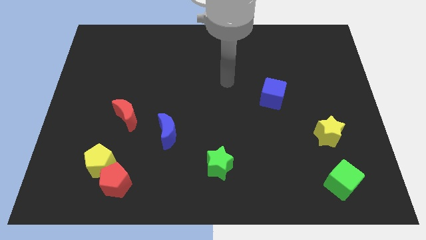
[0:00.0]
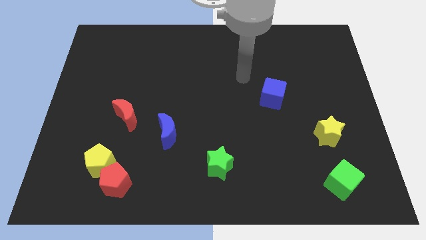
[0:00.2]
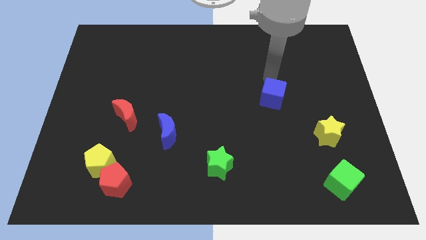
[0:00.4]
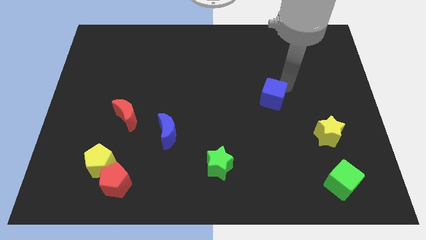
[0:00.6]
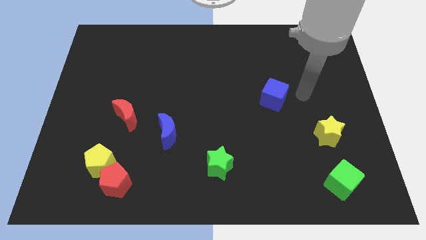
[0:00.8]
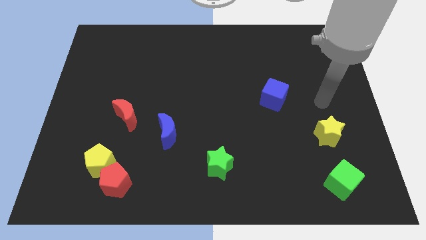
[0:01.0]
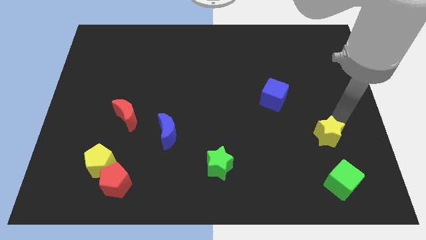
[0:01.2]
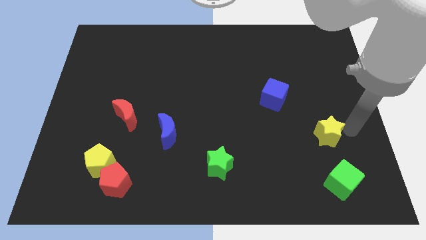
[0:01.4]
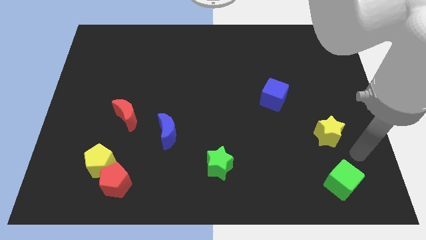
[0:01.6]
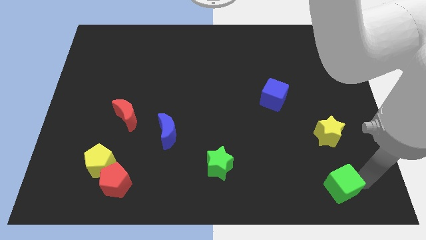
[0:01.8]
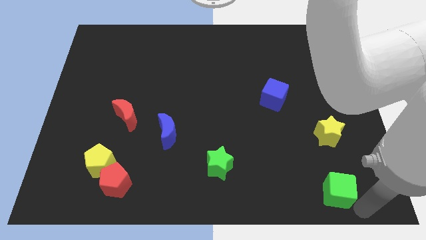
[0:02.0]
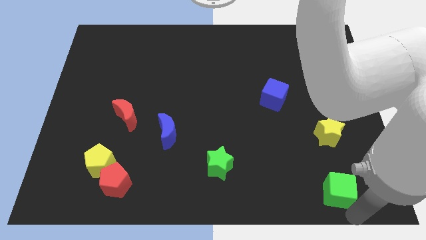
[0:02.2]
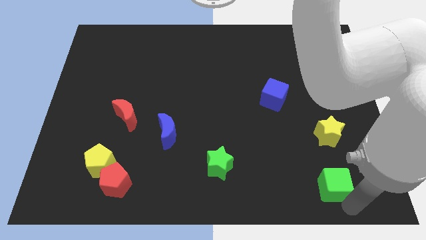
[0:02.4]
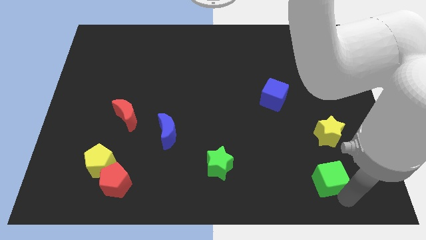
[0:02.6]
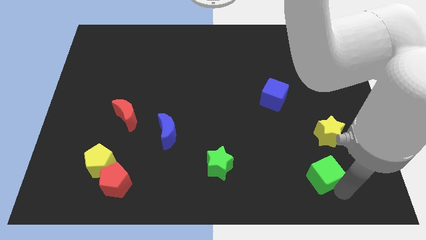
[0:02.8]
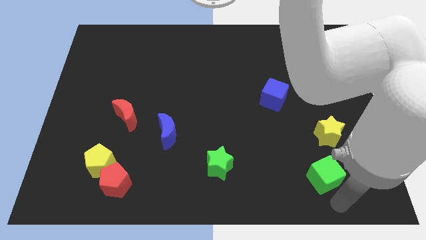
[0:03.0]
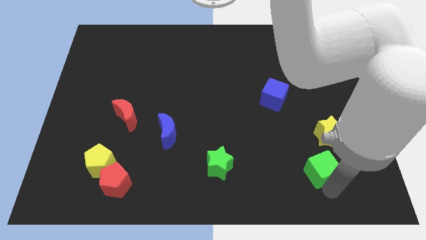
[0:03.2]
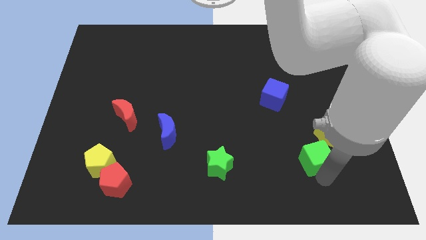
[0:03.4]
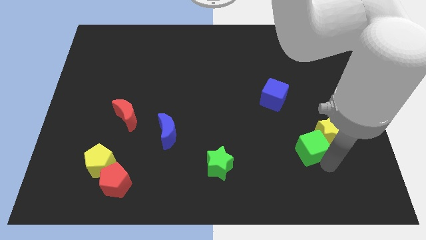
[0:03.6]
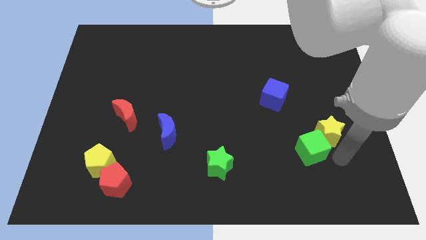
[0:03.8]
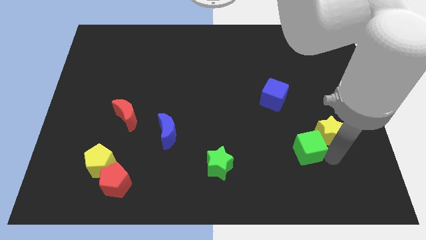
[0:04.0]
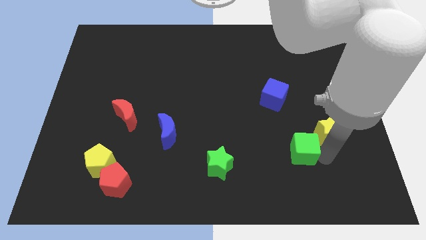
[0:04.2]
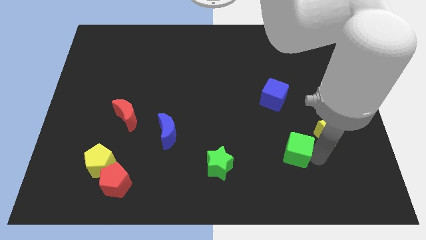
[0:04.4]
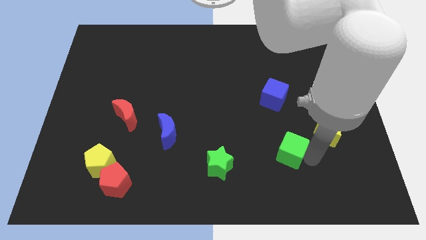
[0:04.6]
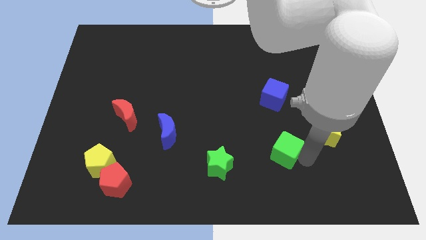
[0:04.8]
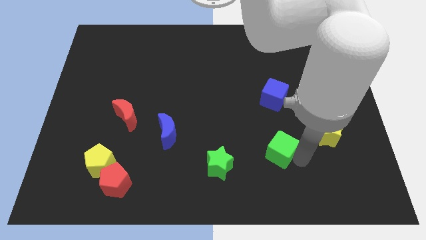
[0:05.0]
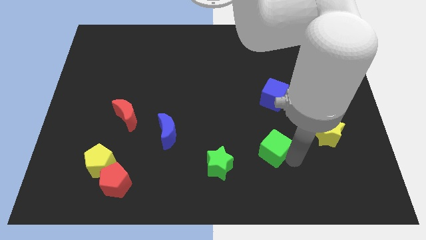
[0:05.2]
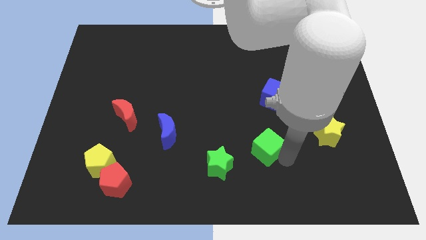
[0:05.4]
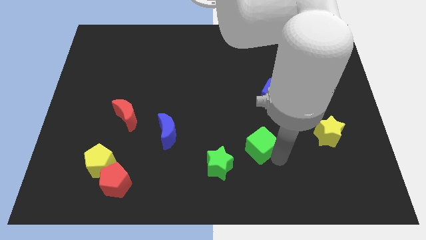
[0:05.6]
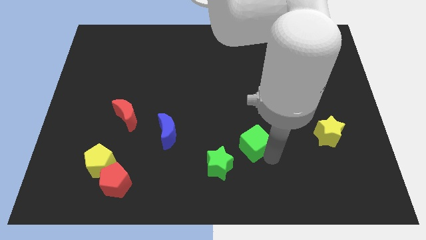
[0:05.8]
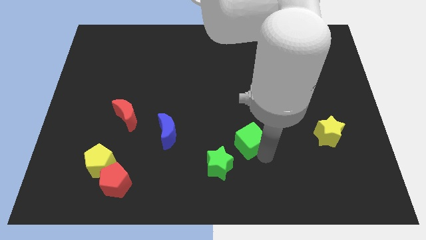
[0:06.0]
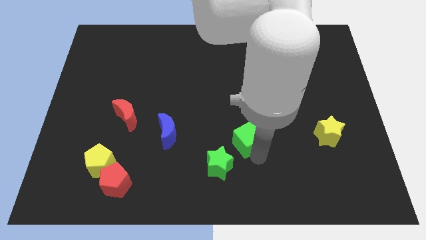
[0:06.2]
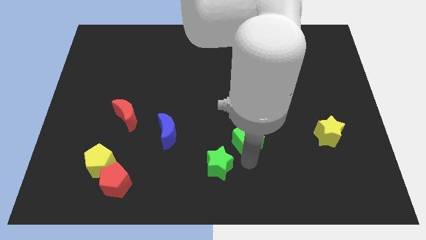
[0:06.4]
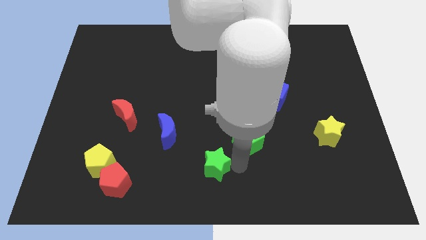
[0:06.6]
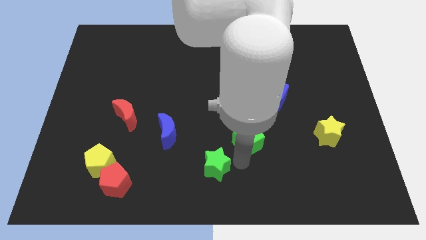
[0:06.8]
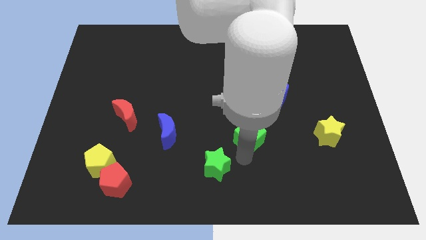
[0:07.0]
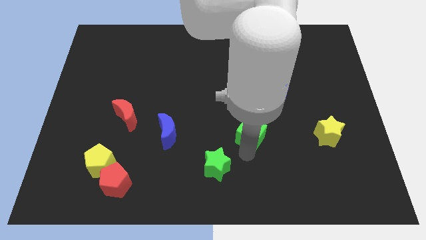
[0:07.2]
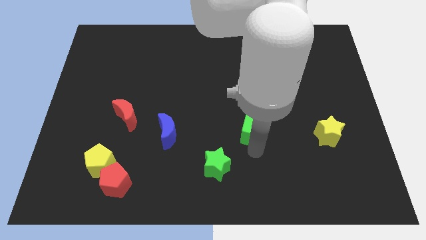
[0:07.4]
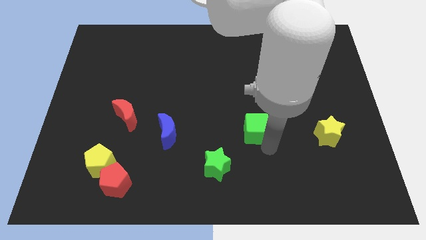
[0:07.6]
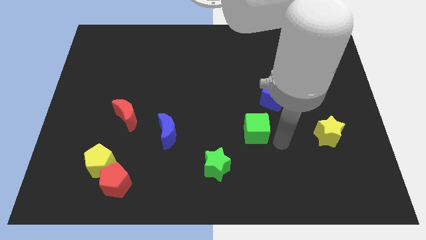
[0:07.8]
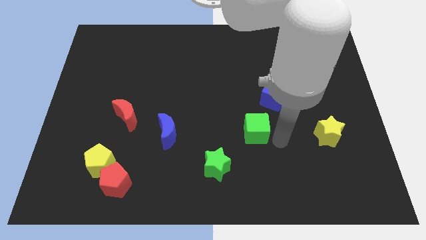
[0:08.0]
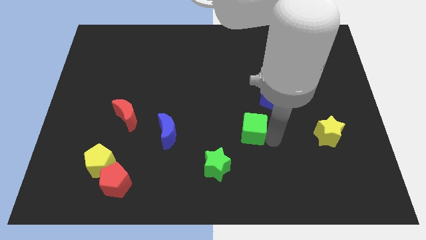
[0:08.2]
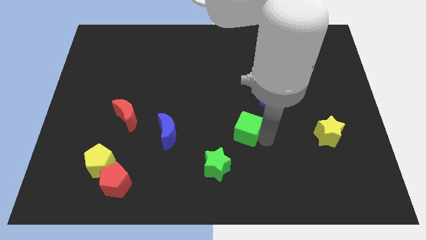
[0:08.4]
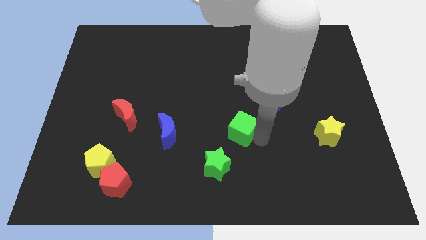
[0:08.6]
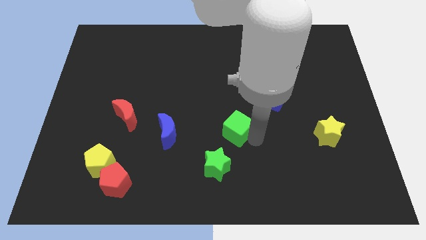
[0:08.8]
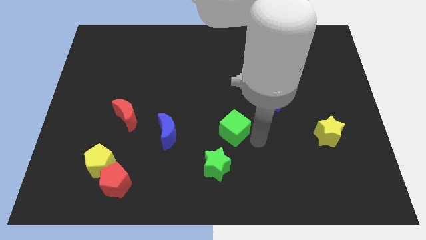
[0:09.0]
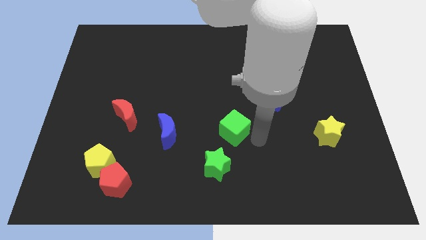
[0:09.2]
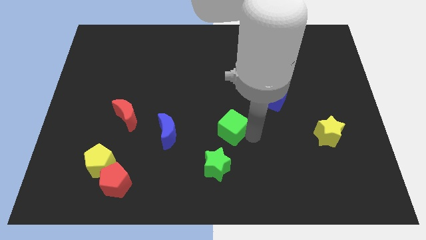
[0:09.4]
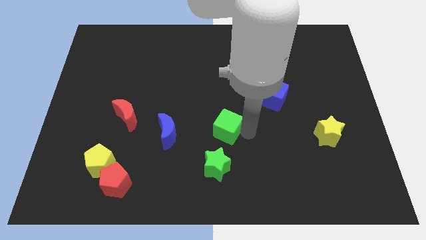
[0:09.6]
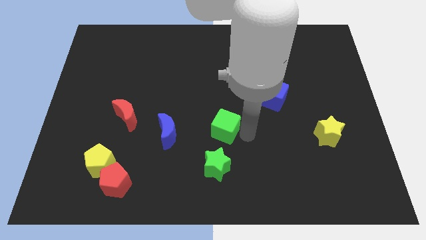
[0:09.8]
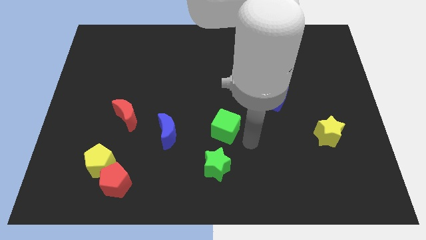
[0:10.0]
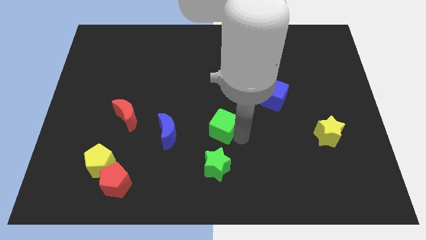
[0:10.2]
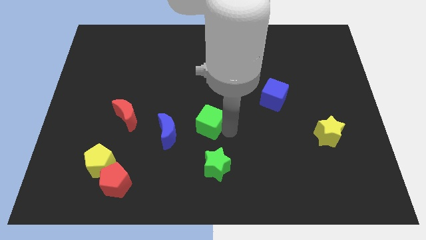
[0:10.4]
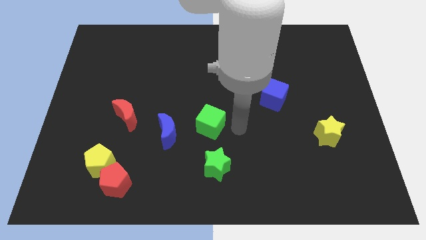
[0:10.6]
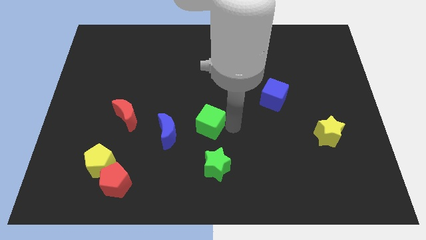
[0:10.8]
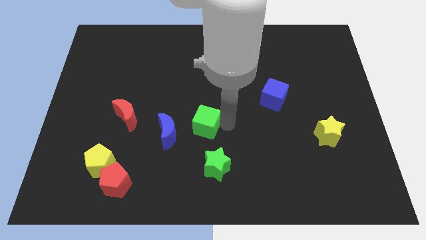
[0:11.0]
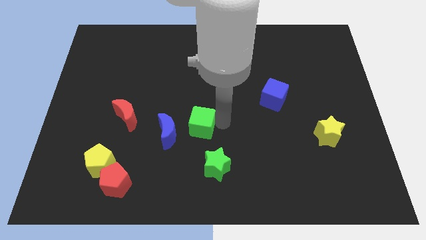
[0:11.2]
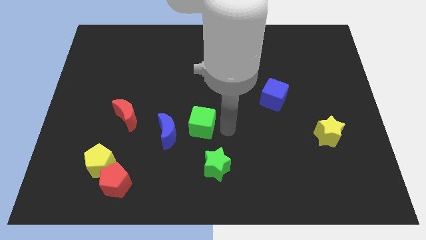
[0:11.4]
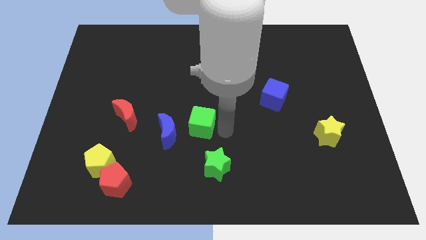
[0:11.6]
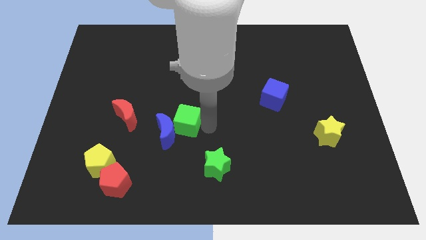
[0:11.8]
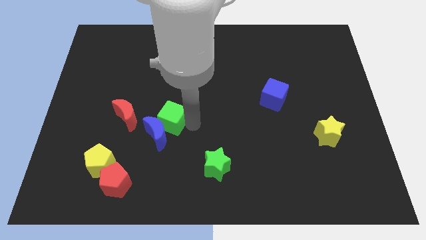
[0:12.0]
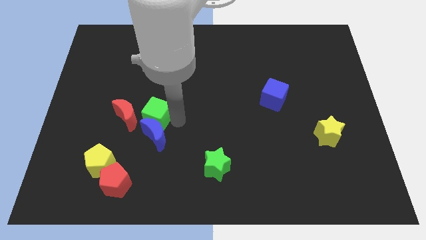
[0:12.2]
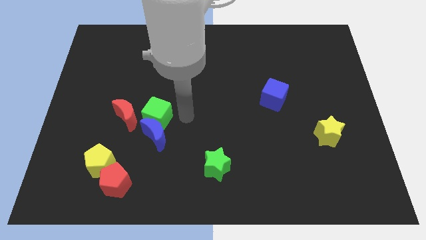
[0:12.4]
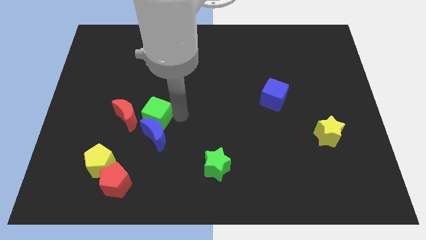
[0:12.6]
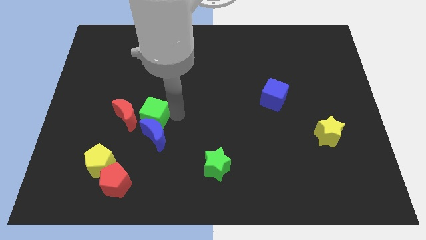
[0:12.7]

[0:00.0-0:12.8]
push the green cube towards the red moon

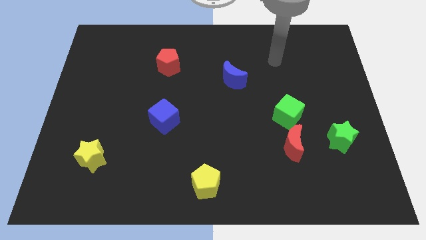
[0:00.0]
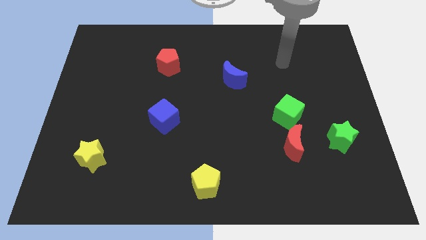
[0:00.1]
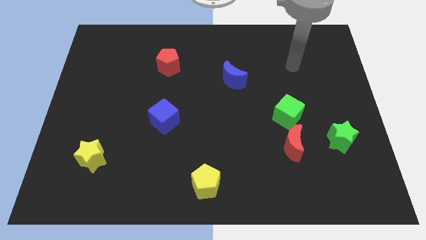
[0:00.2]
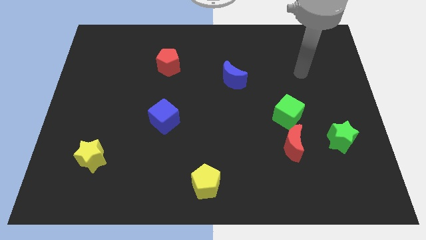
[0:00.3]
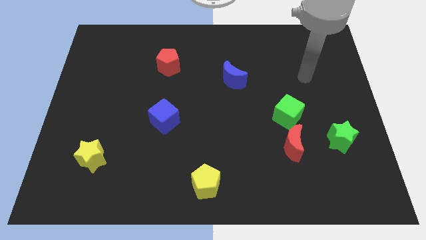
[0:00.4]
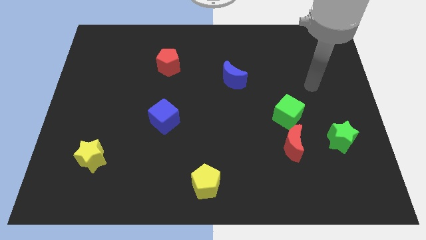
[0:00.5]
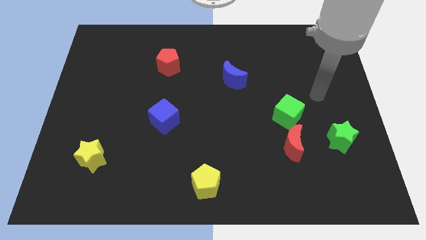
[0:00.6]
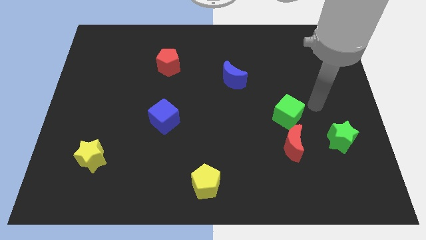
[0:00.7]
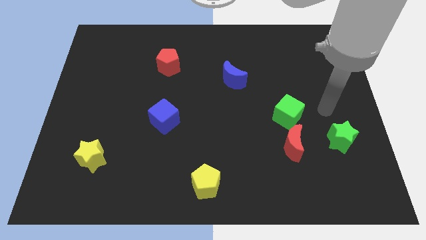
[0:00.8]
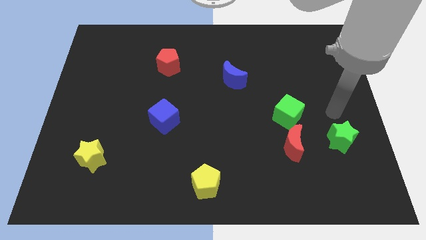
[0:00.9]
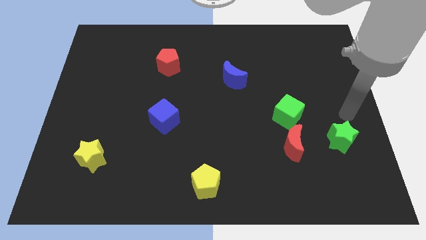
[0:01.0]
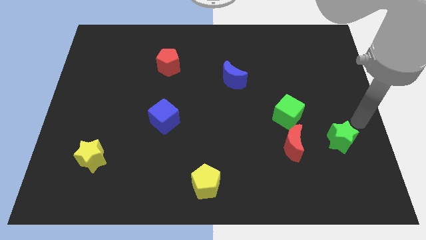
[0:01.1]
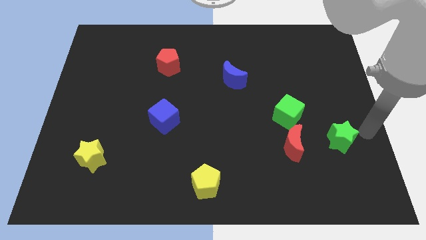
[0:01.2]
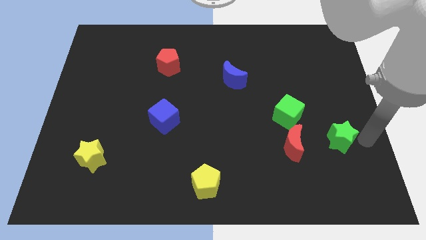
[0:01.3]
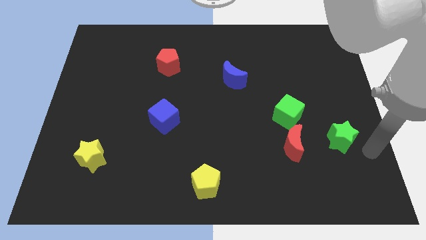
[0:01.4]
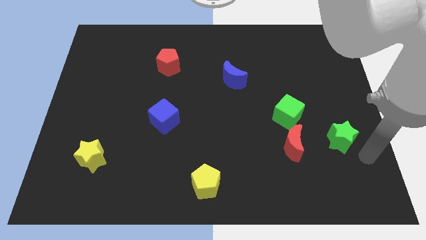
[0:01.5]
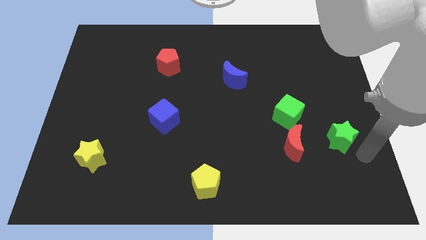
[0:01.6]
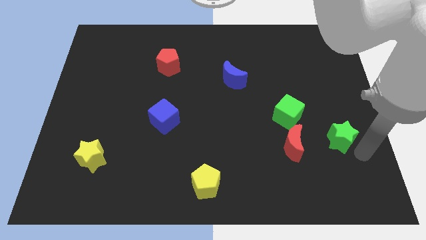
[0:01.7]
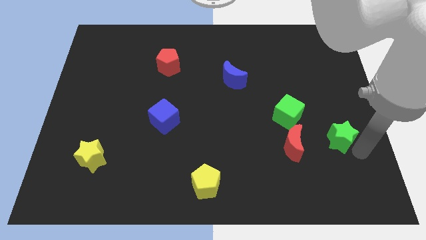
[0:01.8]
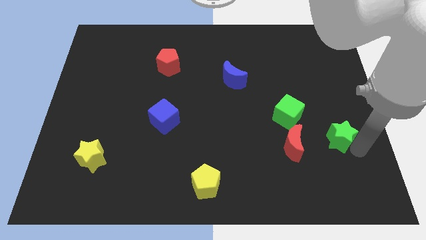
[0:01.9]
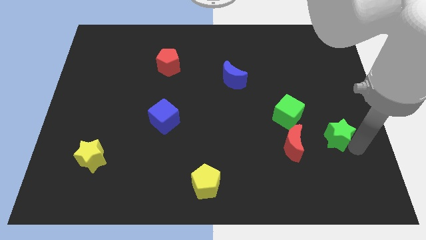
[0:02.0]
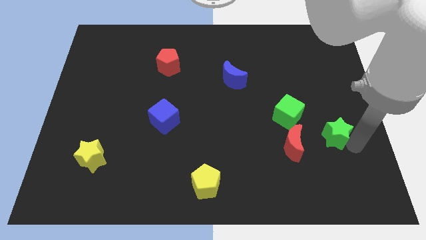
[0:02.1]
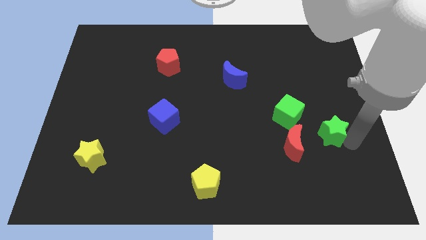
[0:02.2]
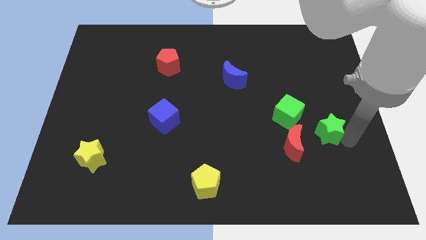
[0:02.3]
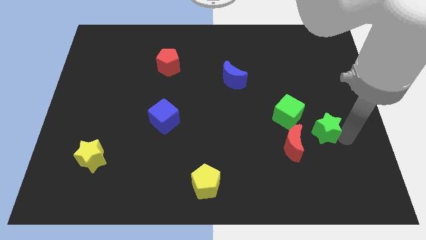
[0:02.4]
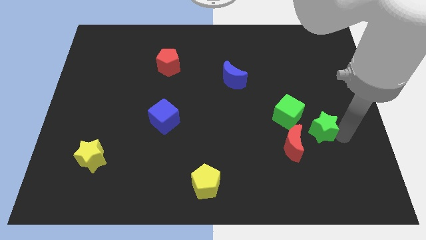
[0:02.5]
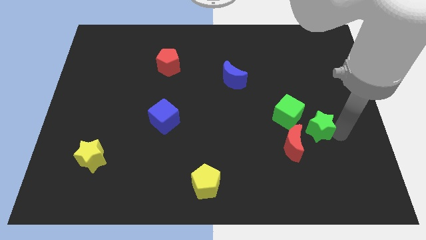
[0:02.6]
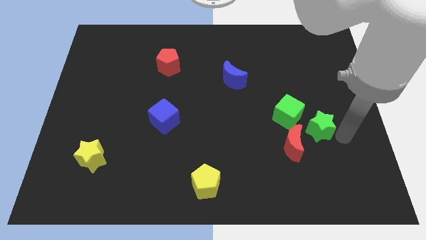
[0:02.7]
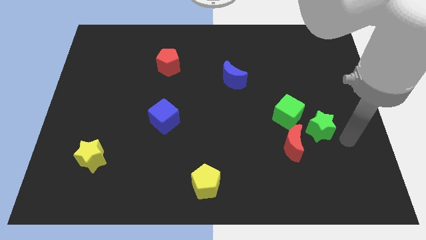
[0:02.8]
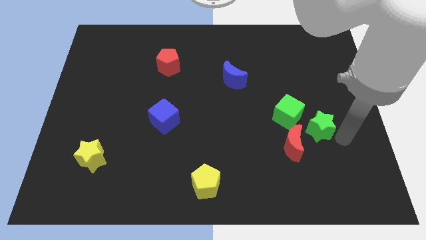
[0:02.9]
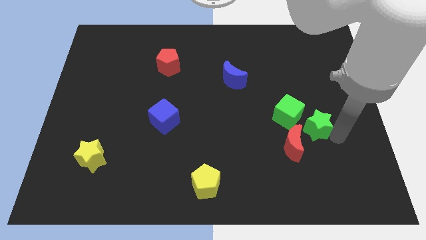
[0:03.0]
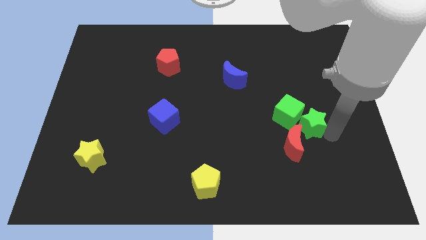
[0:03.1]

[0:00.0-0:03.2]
put the green star next to the green cube
